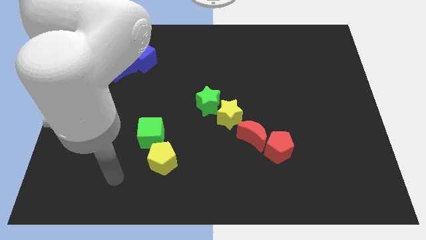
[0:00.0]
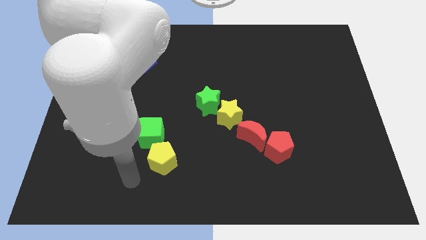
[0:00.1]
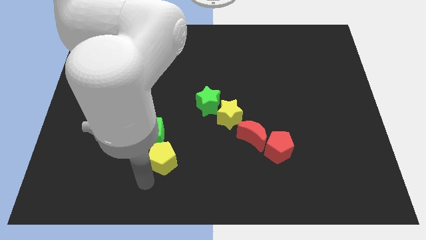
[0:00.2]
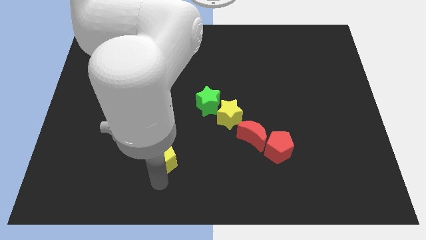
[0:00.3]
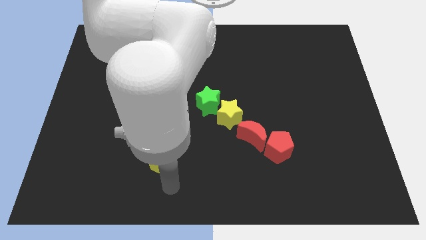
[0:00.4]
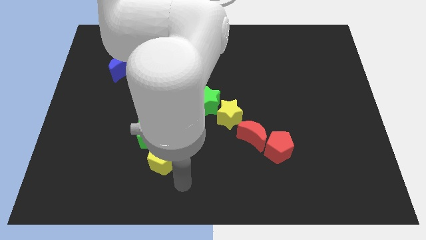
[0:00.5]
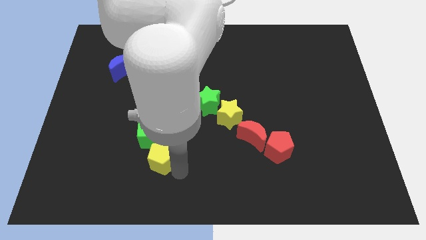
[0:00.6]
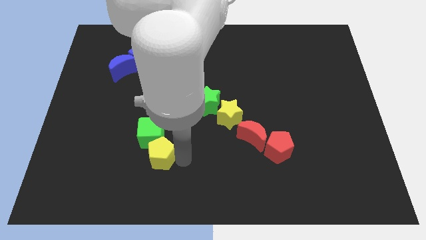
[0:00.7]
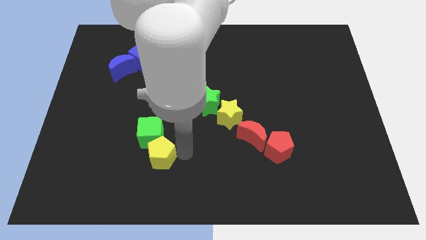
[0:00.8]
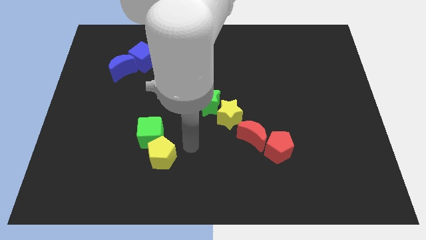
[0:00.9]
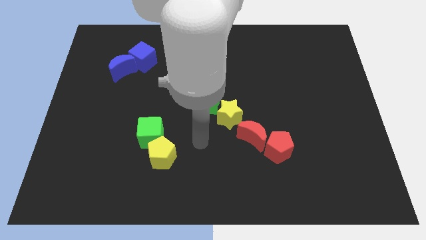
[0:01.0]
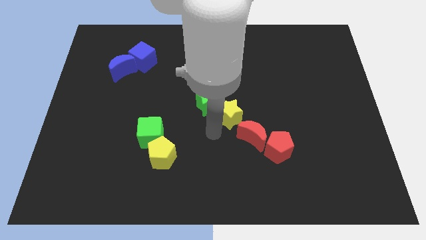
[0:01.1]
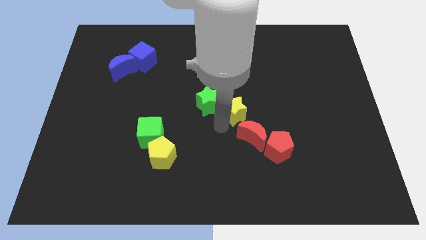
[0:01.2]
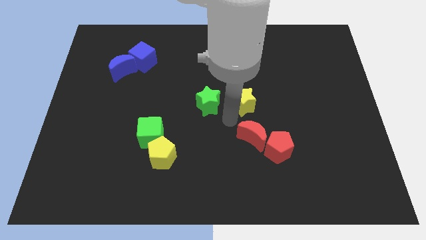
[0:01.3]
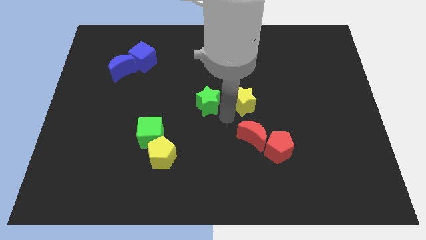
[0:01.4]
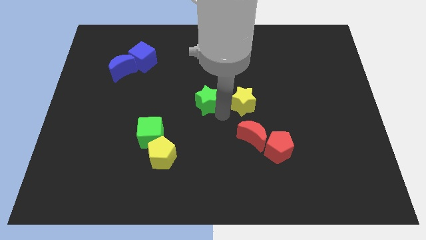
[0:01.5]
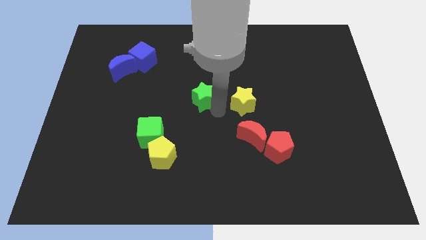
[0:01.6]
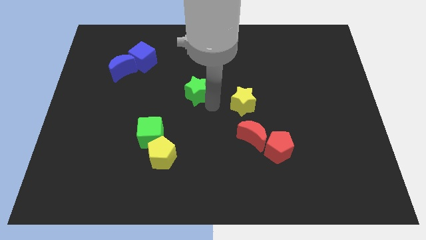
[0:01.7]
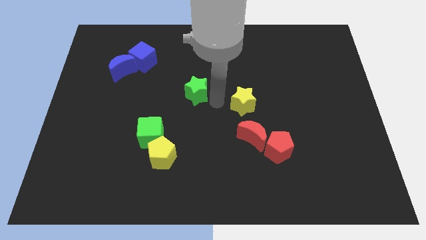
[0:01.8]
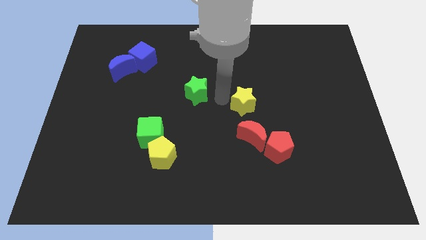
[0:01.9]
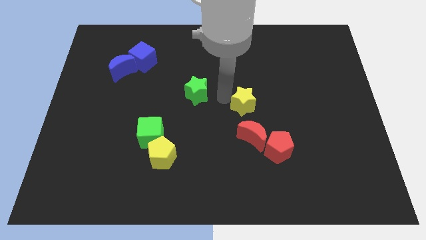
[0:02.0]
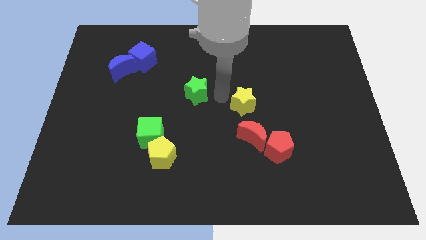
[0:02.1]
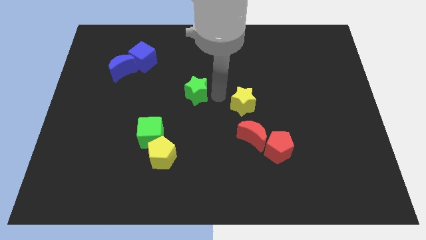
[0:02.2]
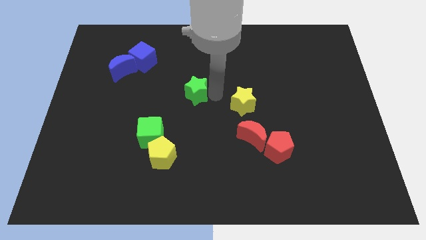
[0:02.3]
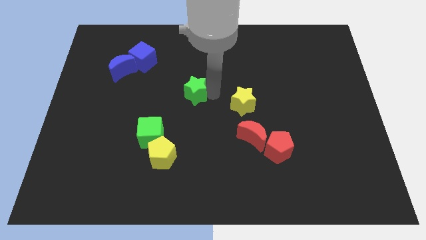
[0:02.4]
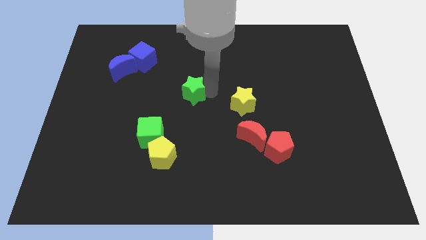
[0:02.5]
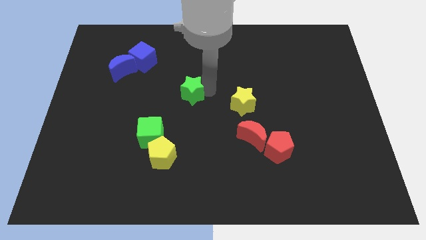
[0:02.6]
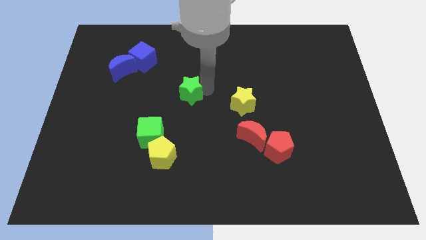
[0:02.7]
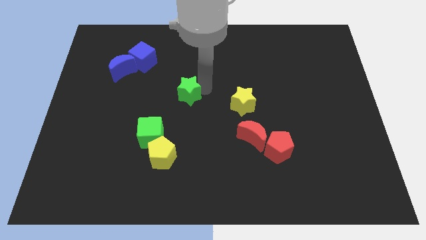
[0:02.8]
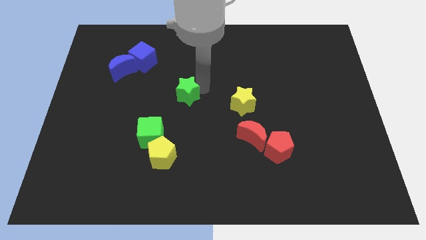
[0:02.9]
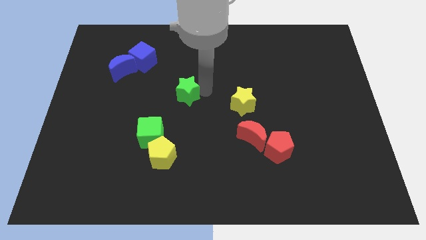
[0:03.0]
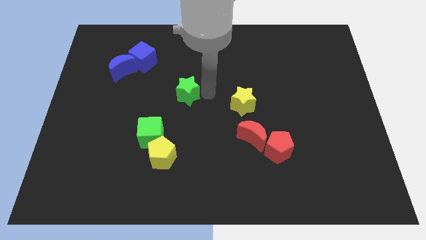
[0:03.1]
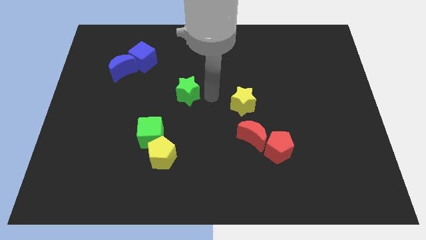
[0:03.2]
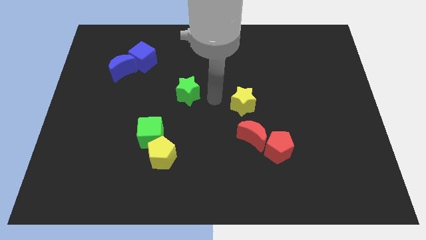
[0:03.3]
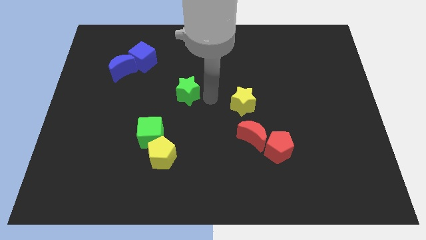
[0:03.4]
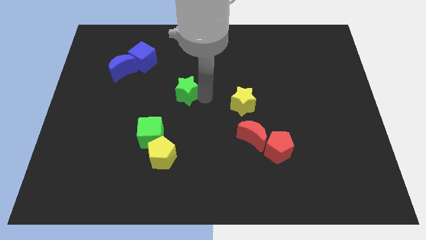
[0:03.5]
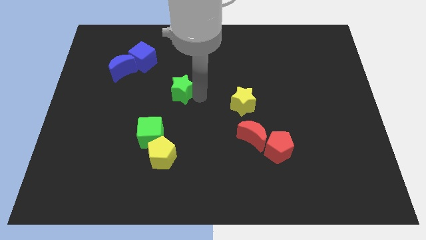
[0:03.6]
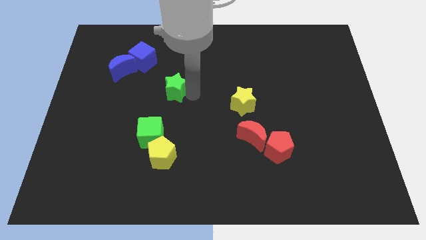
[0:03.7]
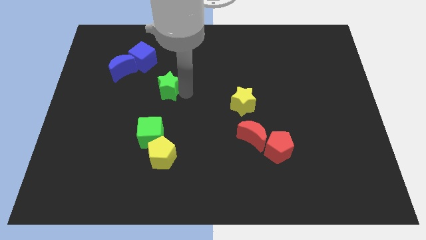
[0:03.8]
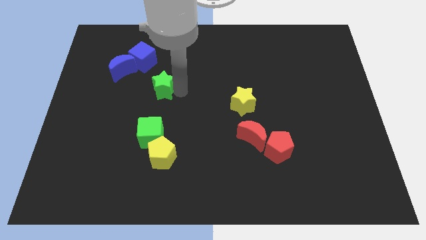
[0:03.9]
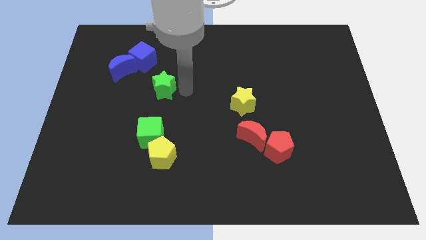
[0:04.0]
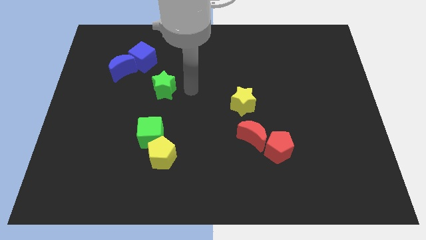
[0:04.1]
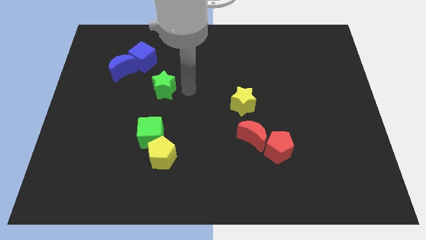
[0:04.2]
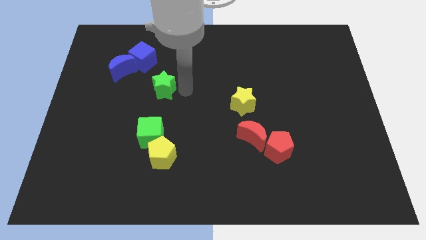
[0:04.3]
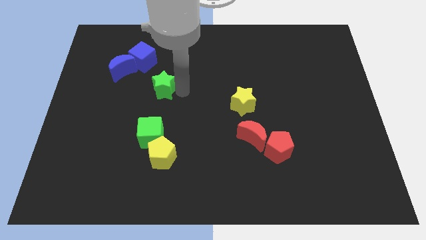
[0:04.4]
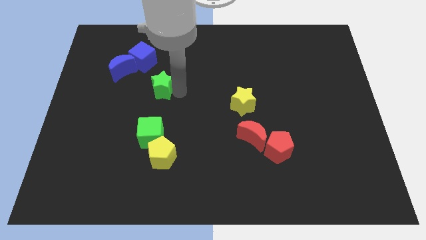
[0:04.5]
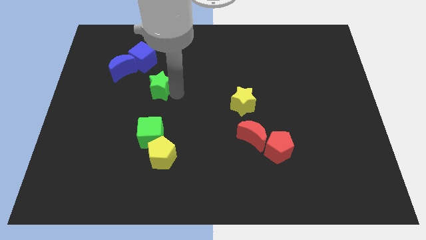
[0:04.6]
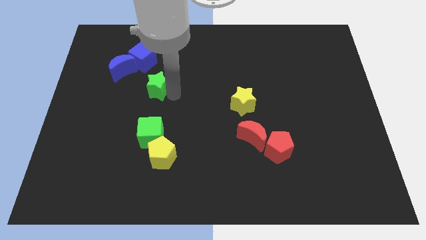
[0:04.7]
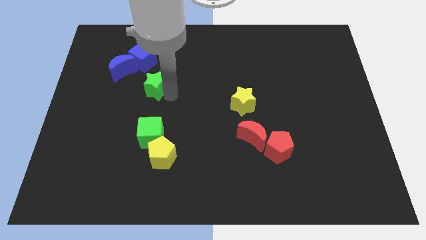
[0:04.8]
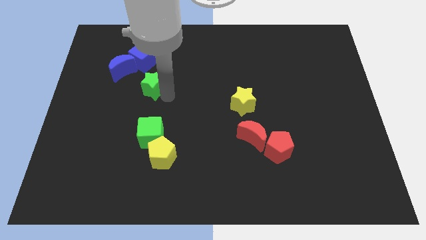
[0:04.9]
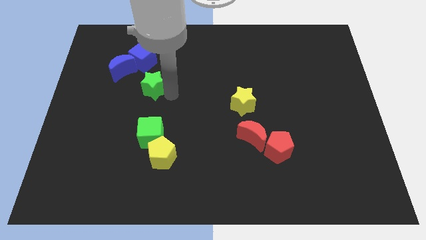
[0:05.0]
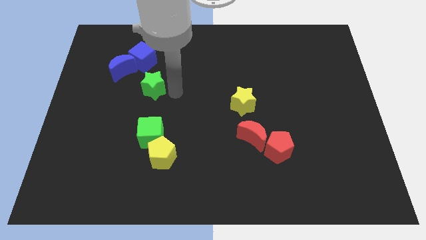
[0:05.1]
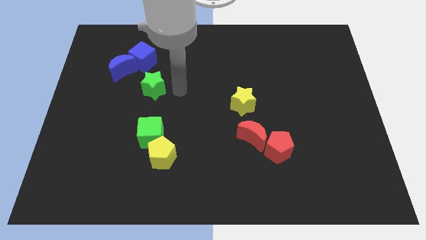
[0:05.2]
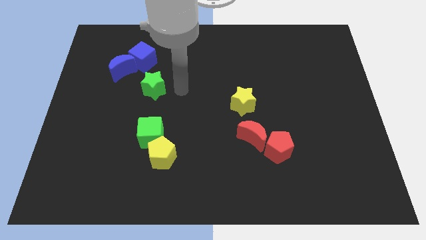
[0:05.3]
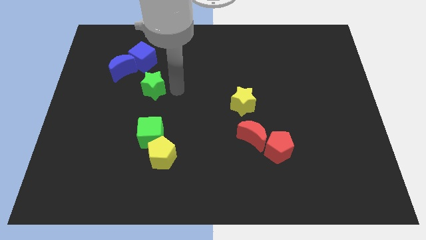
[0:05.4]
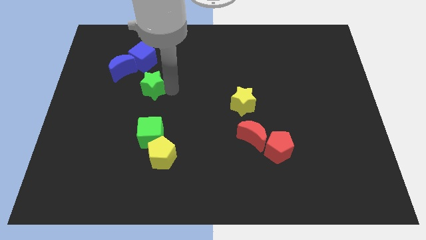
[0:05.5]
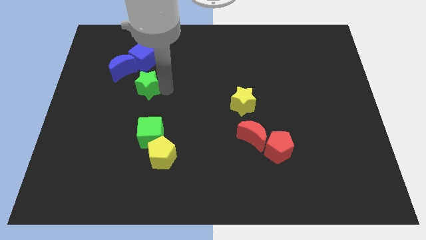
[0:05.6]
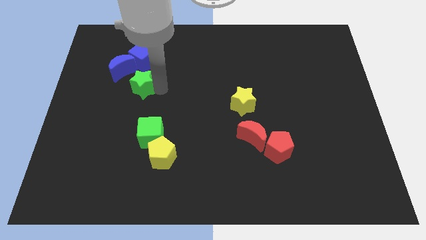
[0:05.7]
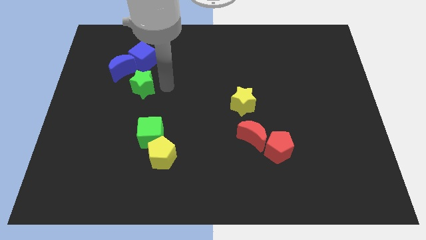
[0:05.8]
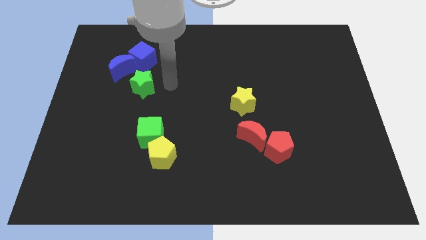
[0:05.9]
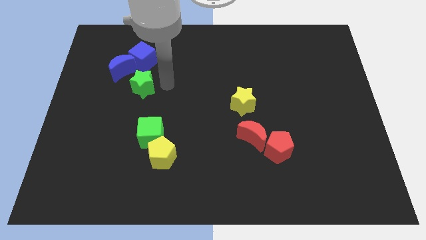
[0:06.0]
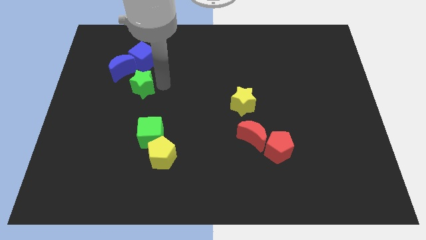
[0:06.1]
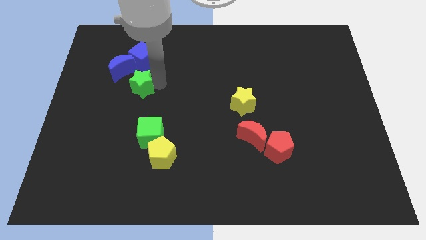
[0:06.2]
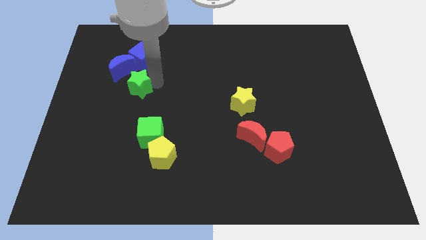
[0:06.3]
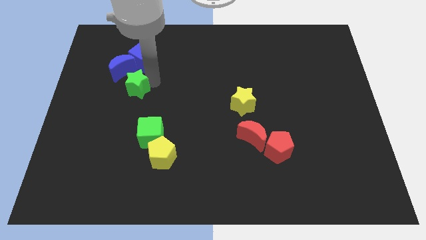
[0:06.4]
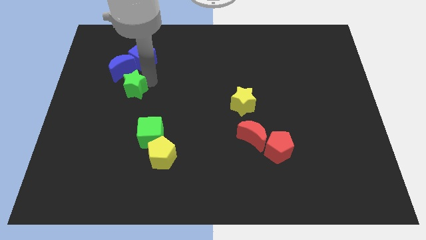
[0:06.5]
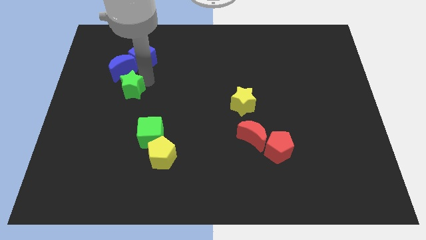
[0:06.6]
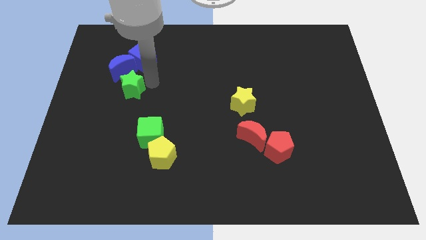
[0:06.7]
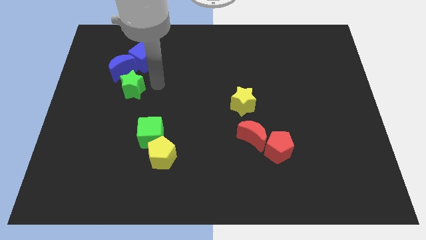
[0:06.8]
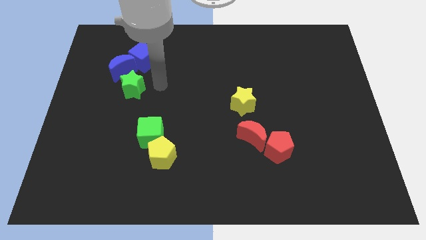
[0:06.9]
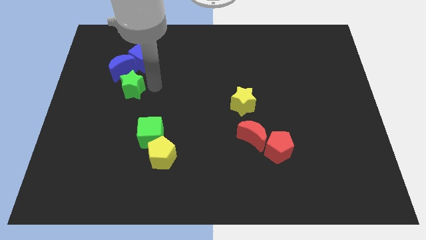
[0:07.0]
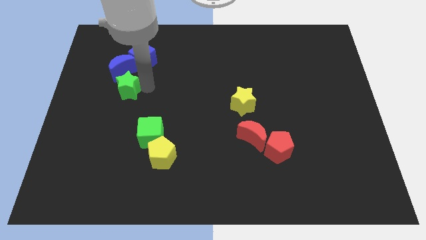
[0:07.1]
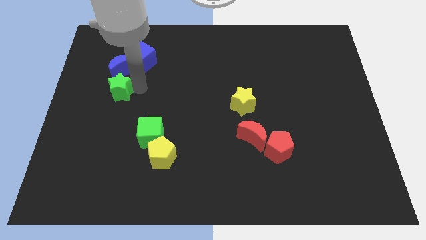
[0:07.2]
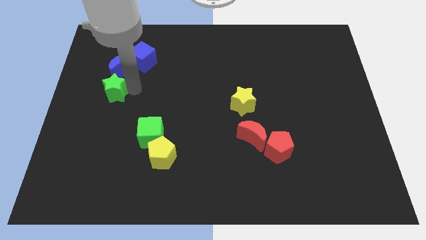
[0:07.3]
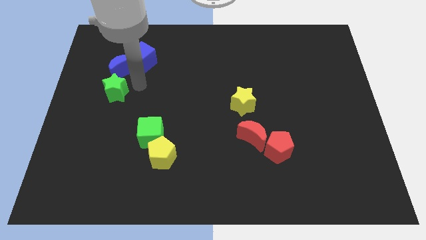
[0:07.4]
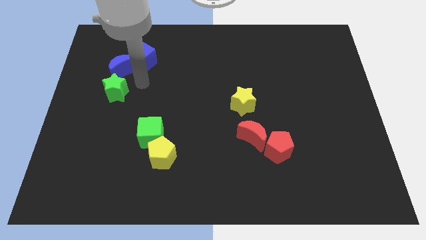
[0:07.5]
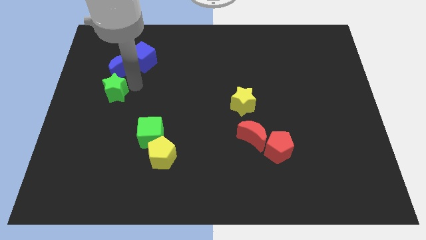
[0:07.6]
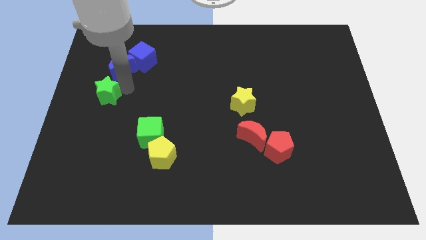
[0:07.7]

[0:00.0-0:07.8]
push the green star to the left side of the board
